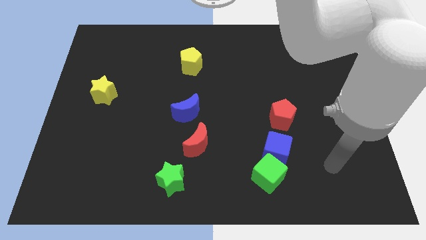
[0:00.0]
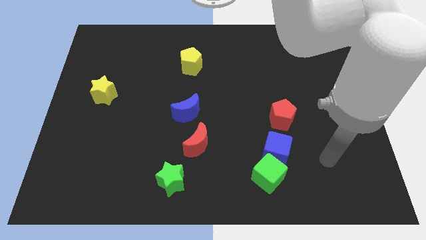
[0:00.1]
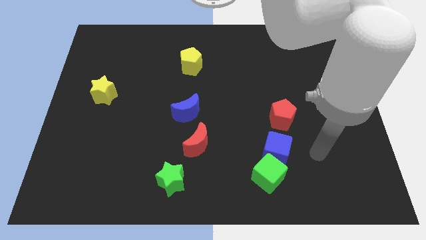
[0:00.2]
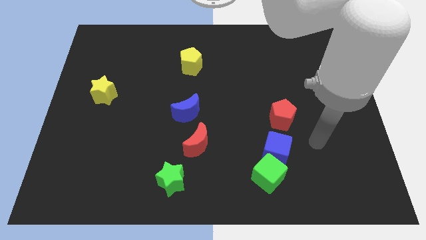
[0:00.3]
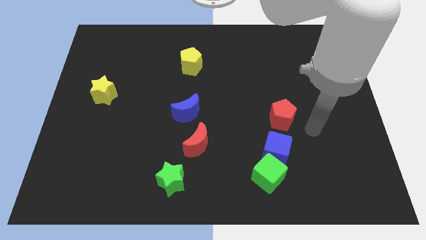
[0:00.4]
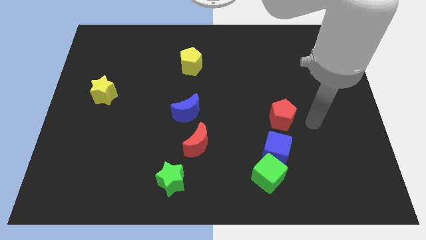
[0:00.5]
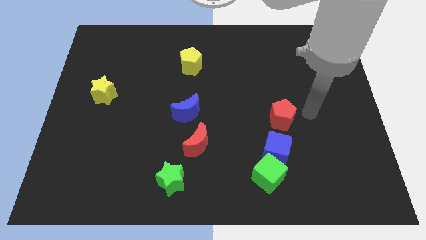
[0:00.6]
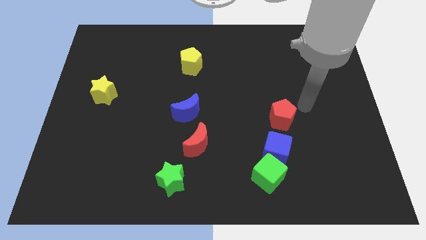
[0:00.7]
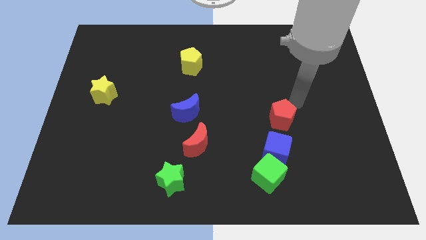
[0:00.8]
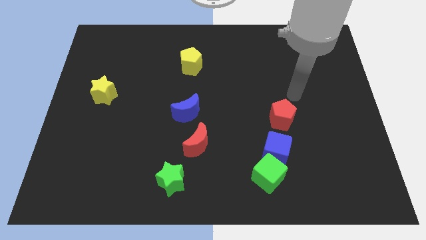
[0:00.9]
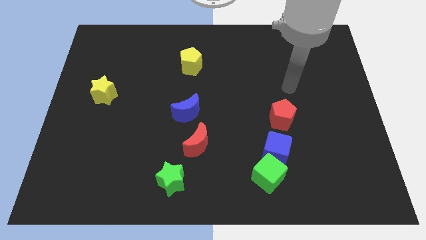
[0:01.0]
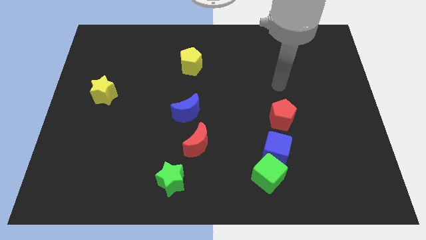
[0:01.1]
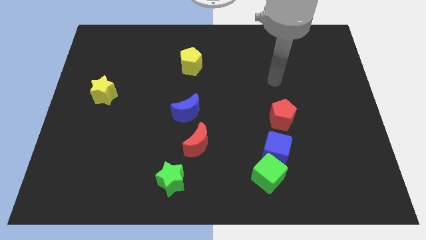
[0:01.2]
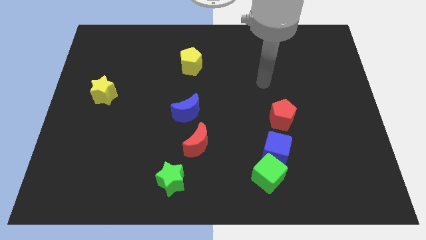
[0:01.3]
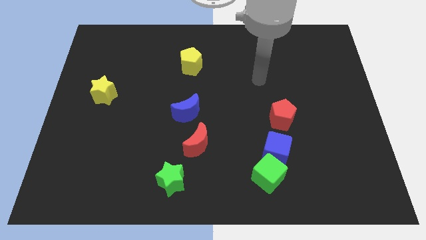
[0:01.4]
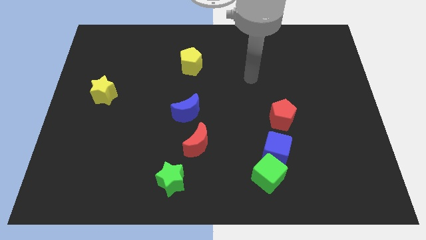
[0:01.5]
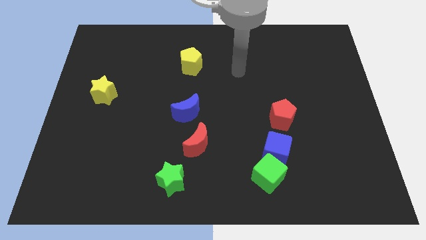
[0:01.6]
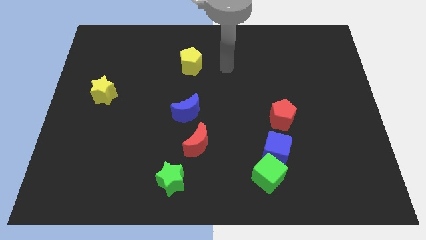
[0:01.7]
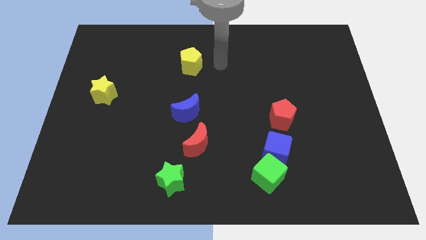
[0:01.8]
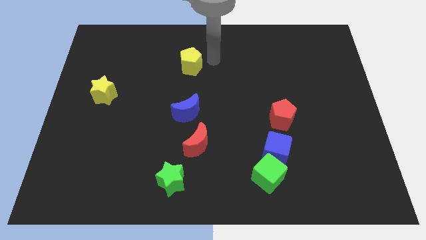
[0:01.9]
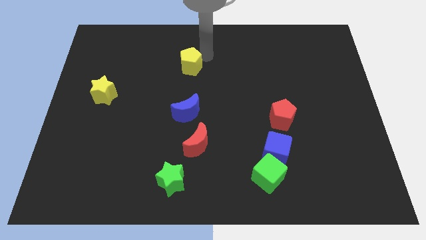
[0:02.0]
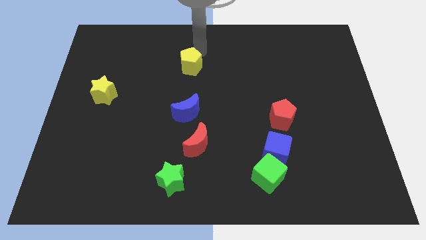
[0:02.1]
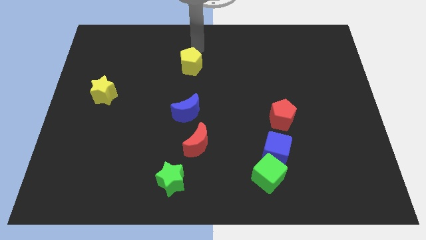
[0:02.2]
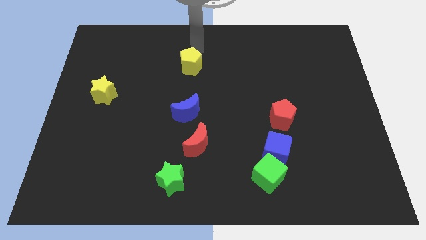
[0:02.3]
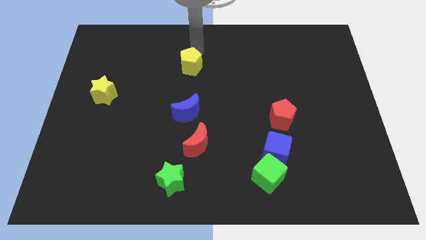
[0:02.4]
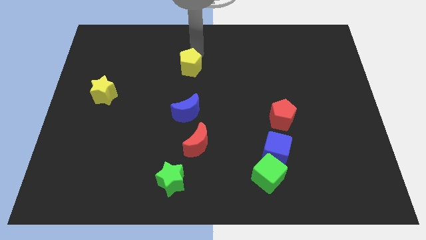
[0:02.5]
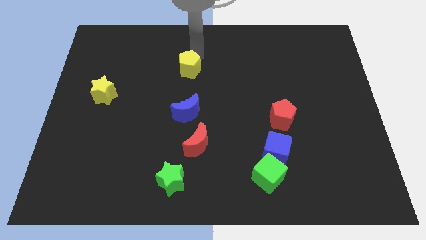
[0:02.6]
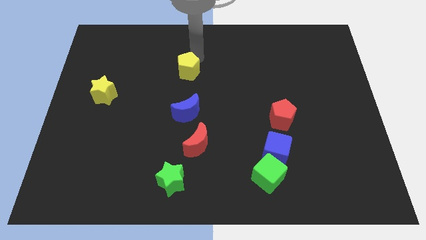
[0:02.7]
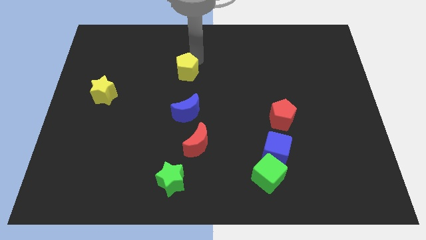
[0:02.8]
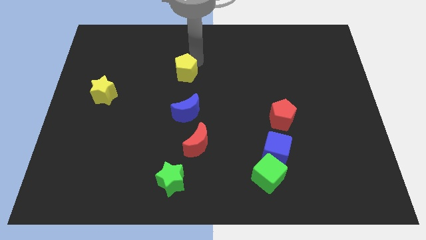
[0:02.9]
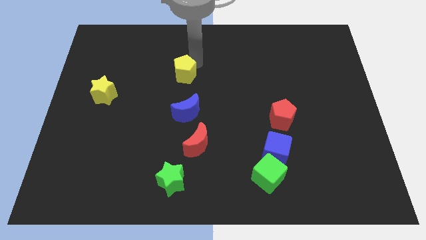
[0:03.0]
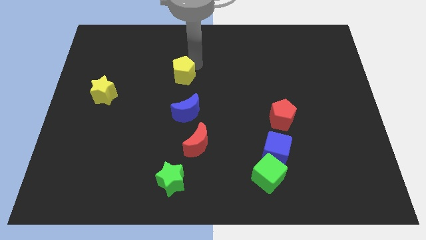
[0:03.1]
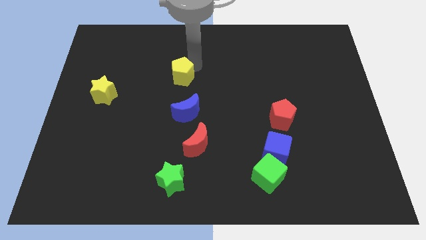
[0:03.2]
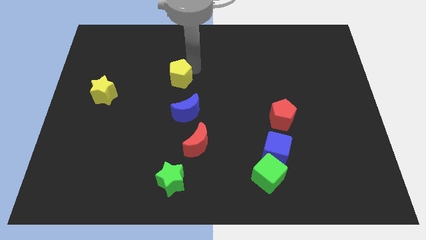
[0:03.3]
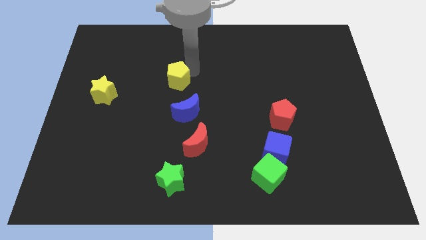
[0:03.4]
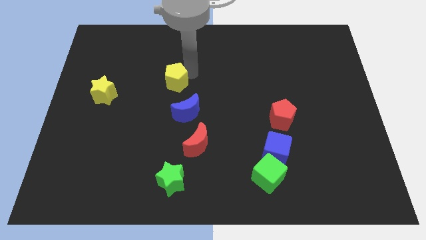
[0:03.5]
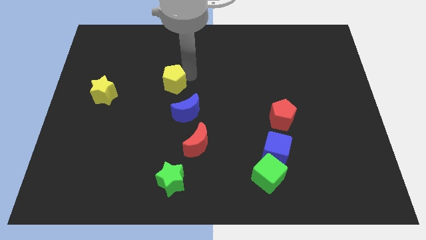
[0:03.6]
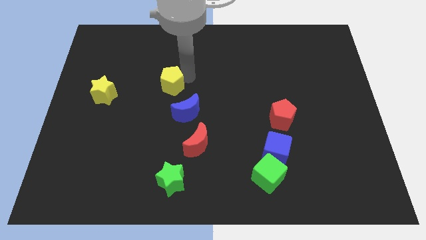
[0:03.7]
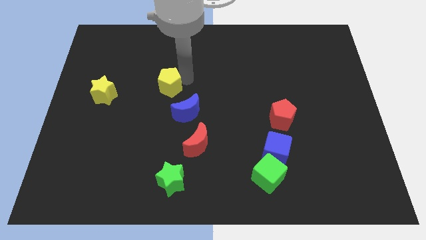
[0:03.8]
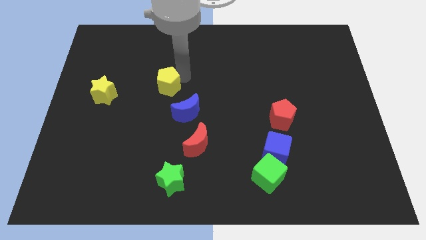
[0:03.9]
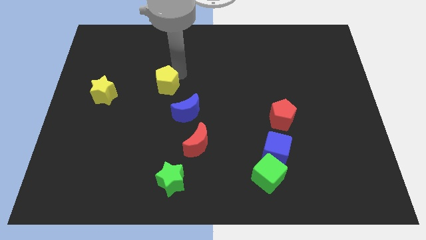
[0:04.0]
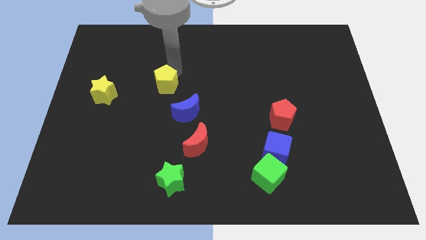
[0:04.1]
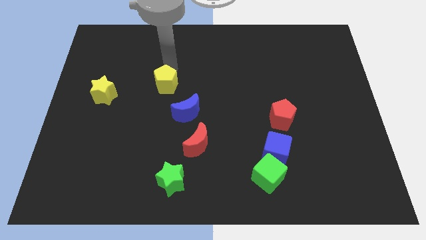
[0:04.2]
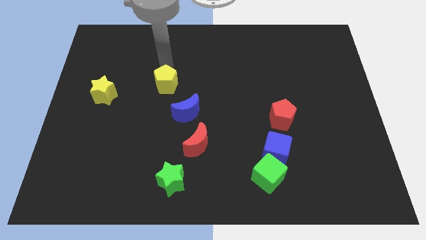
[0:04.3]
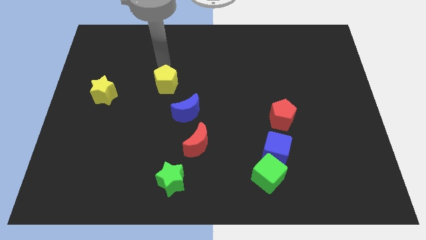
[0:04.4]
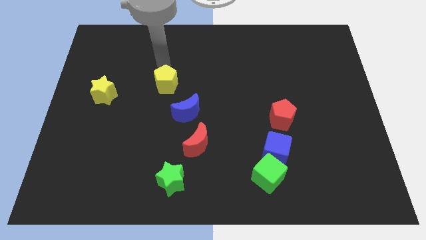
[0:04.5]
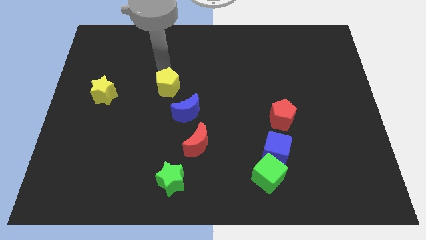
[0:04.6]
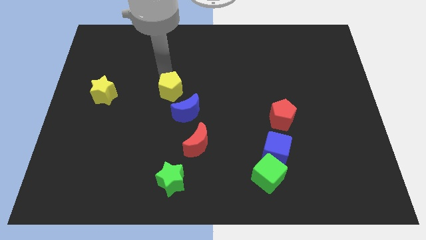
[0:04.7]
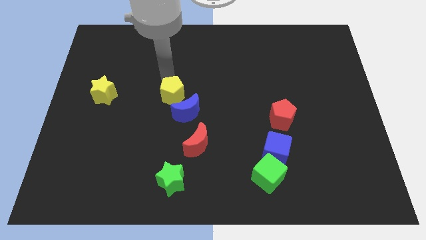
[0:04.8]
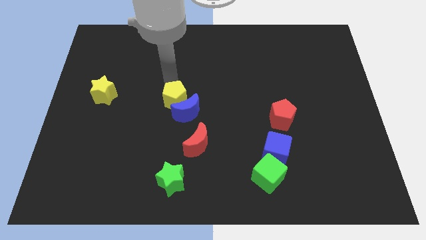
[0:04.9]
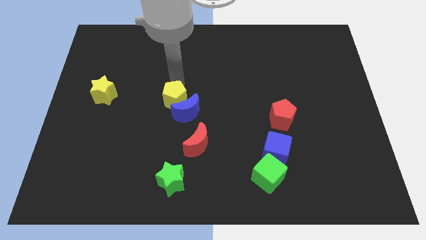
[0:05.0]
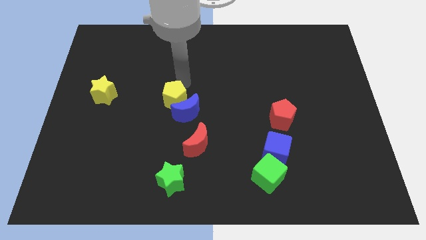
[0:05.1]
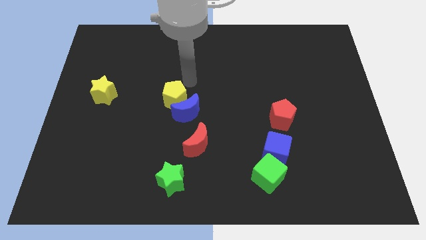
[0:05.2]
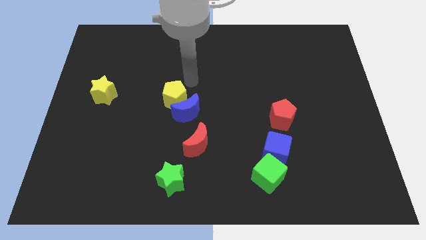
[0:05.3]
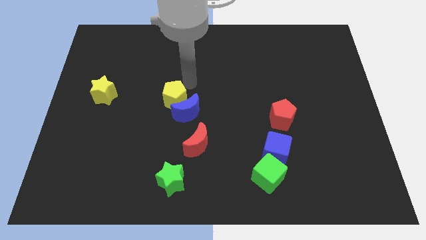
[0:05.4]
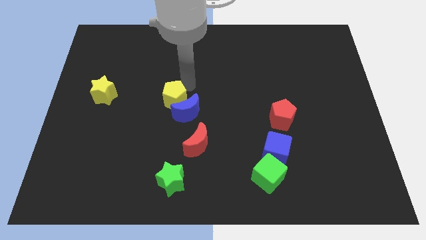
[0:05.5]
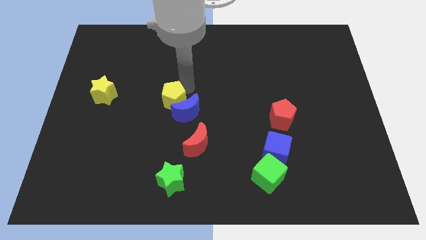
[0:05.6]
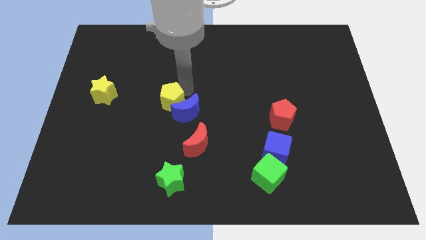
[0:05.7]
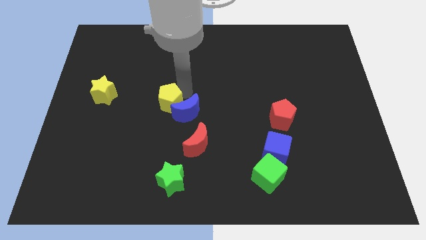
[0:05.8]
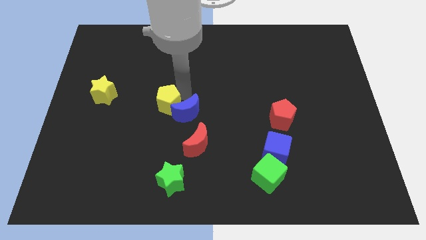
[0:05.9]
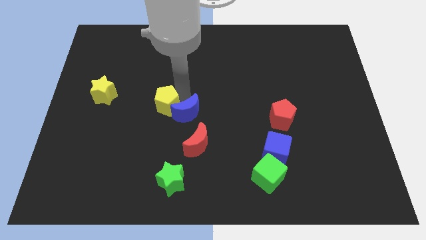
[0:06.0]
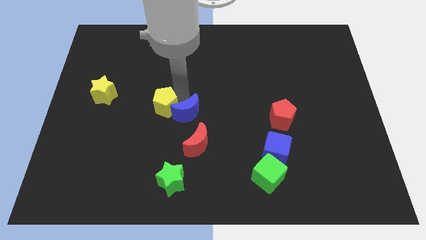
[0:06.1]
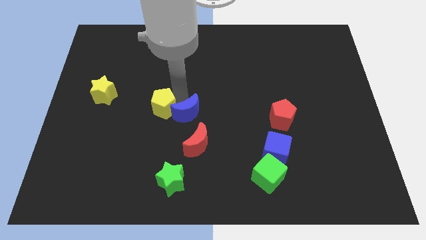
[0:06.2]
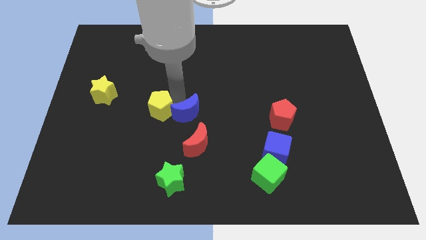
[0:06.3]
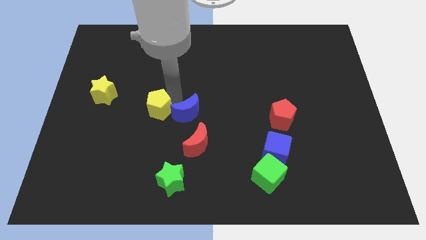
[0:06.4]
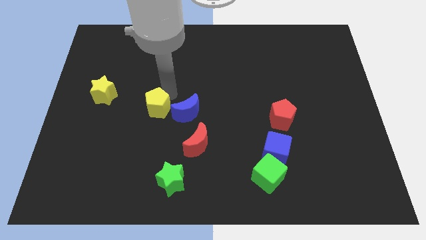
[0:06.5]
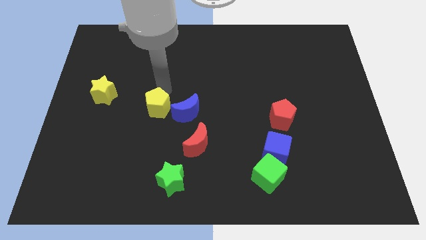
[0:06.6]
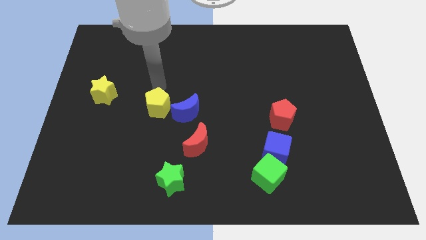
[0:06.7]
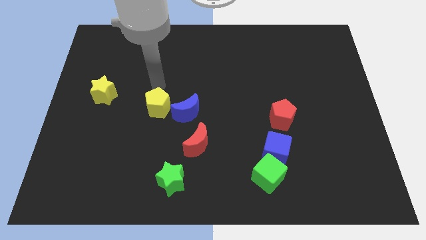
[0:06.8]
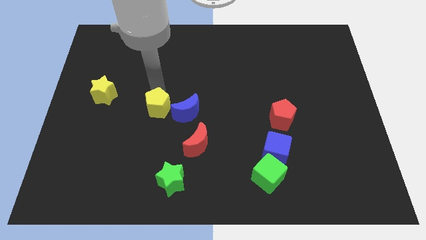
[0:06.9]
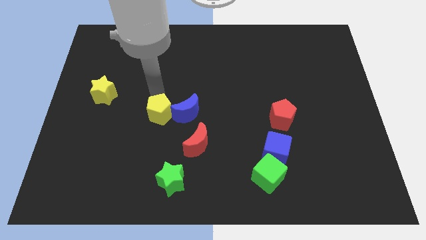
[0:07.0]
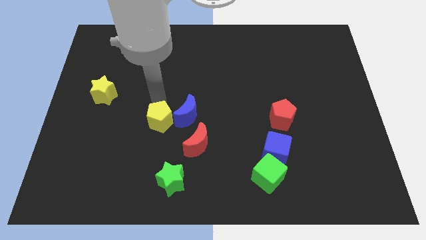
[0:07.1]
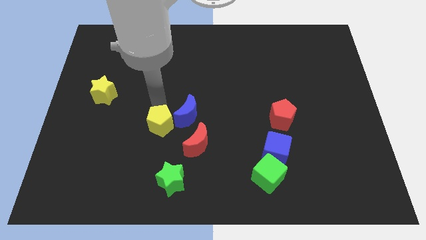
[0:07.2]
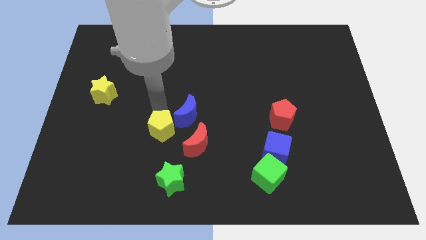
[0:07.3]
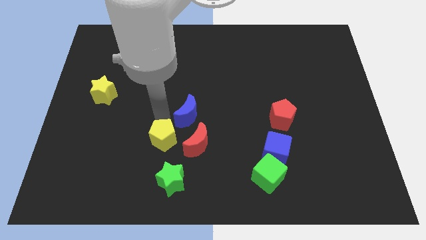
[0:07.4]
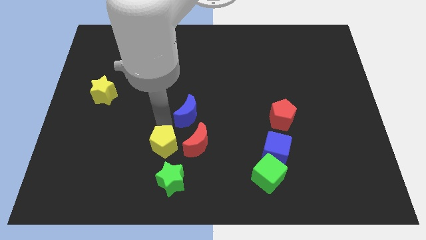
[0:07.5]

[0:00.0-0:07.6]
move the yellow pentagon to the top left of the green star

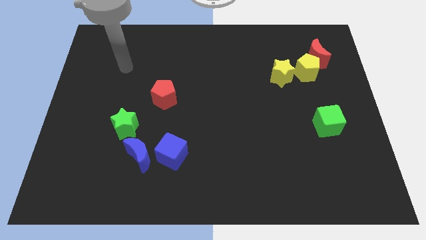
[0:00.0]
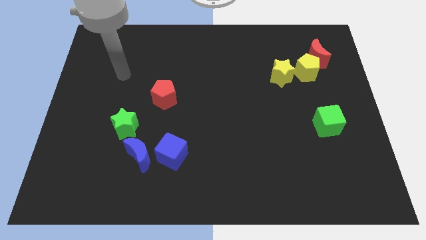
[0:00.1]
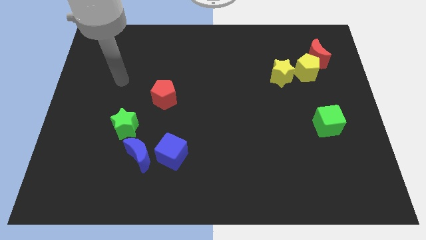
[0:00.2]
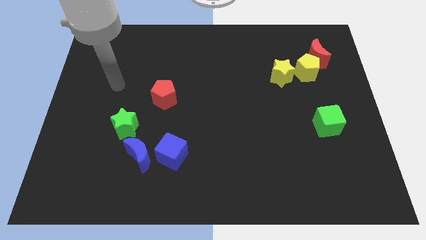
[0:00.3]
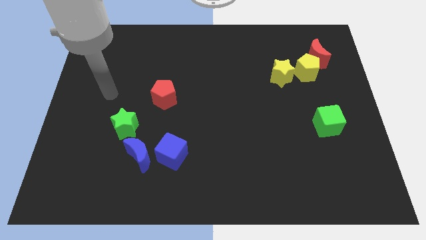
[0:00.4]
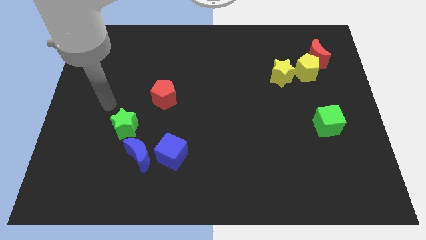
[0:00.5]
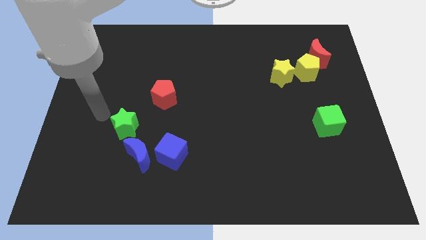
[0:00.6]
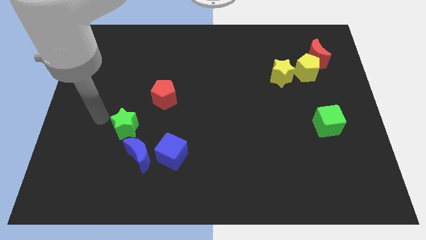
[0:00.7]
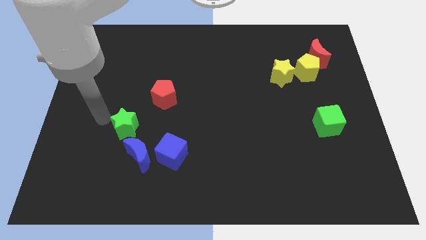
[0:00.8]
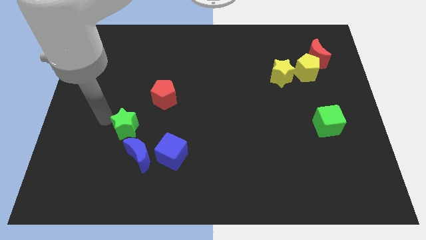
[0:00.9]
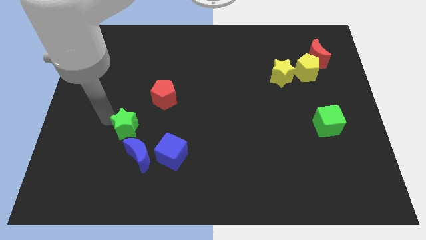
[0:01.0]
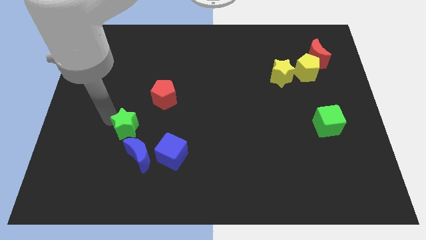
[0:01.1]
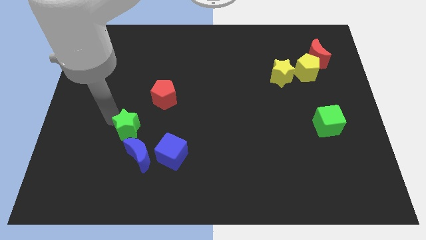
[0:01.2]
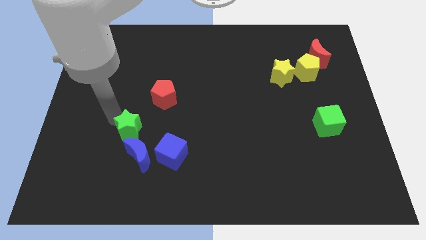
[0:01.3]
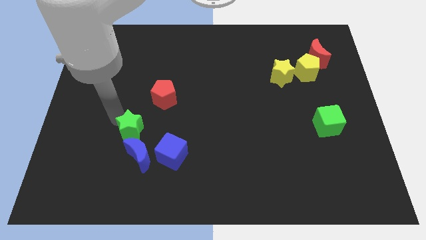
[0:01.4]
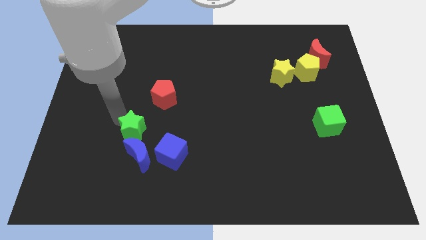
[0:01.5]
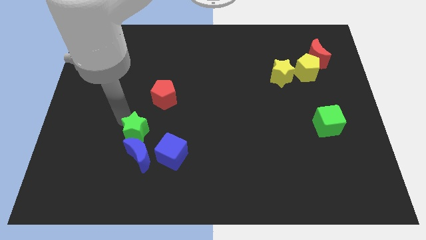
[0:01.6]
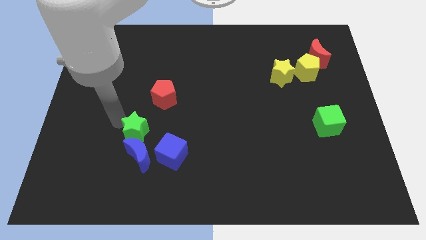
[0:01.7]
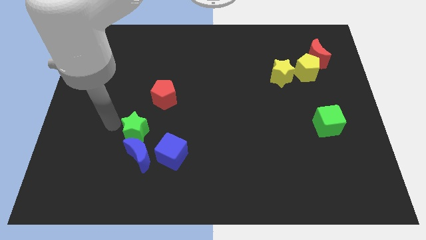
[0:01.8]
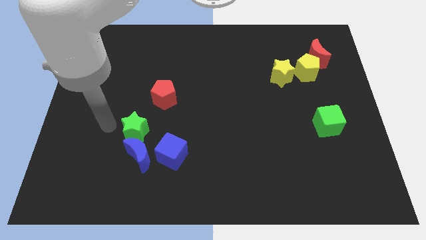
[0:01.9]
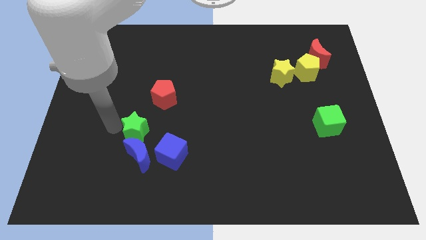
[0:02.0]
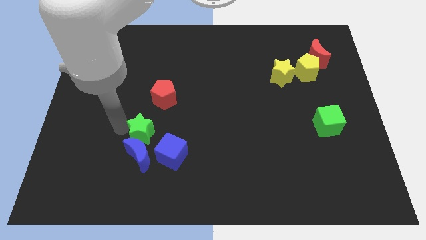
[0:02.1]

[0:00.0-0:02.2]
push the green star to the top right of the blue moon
